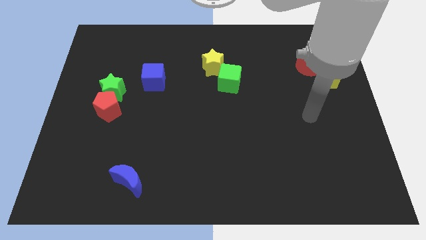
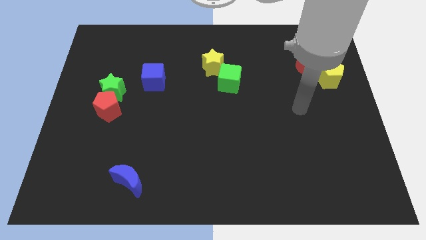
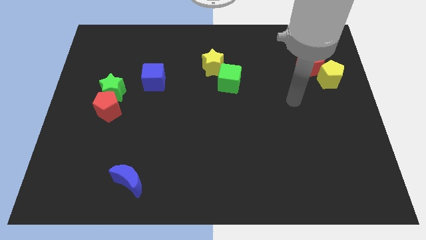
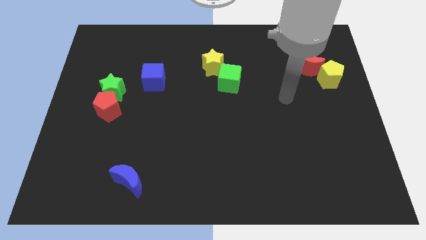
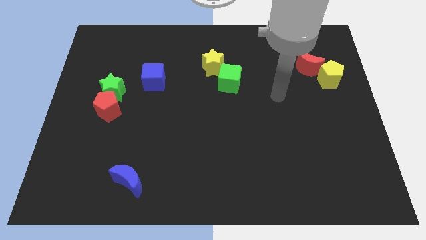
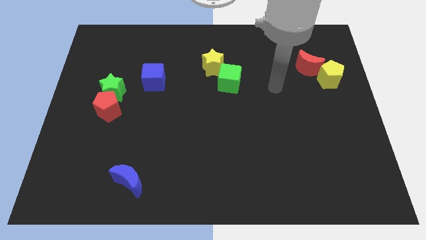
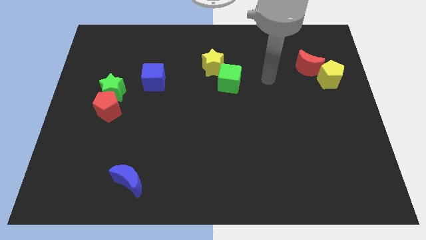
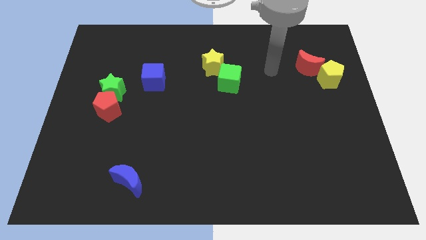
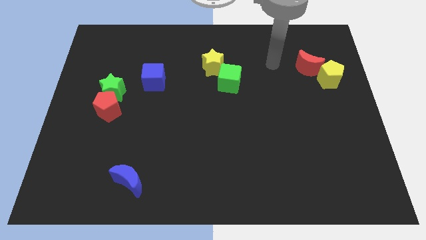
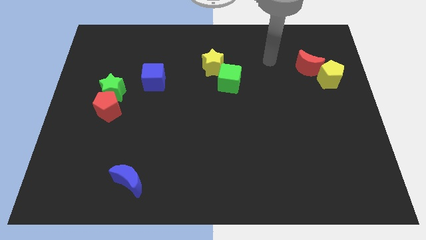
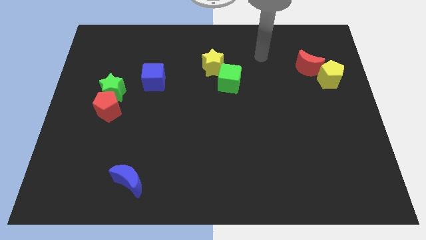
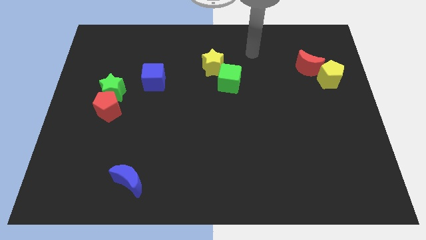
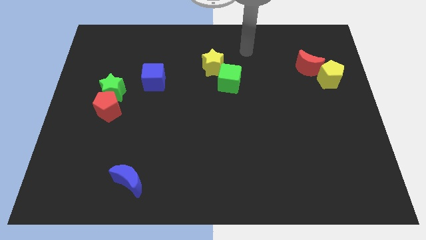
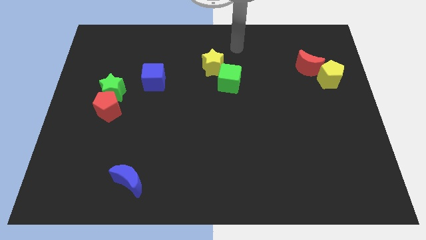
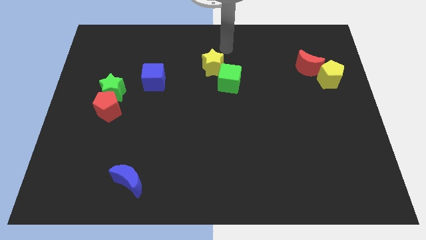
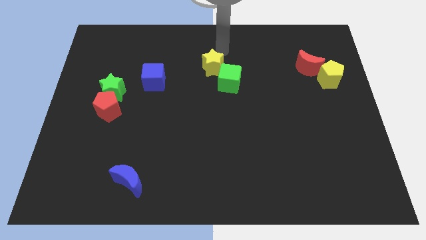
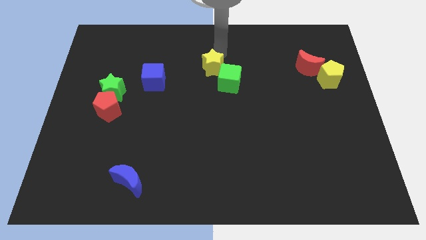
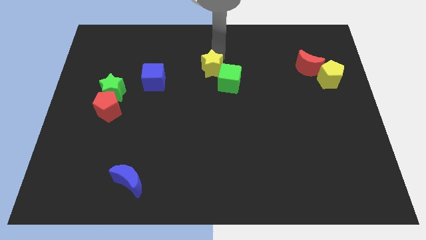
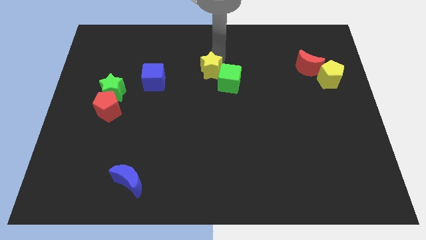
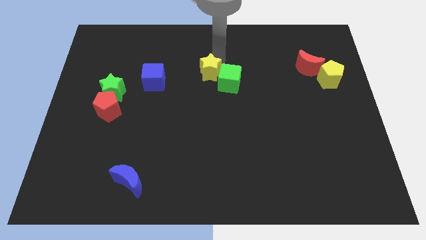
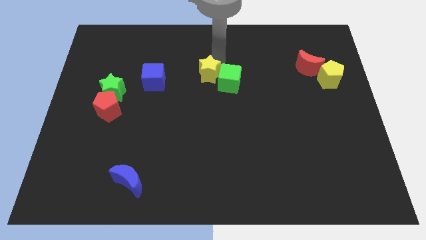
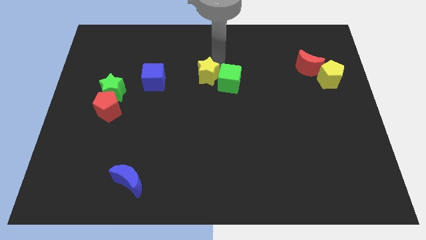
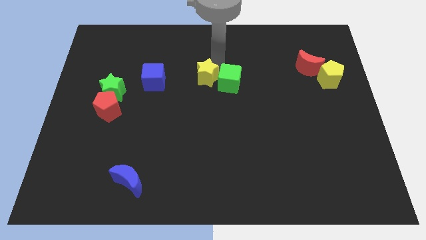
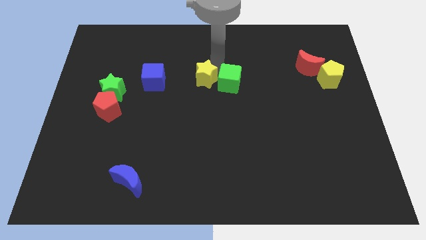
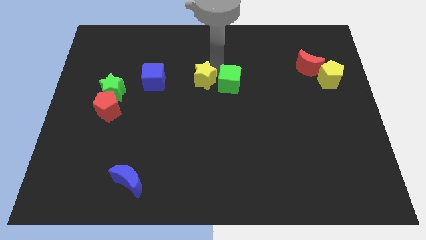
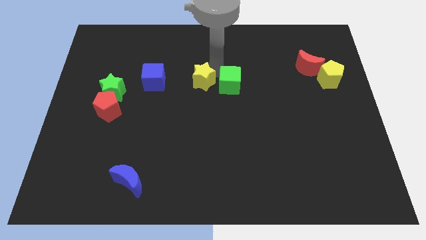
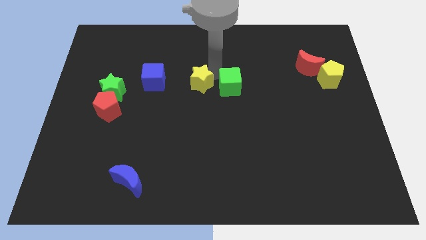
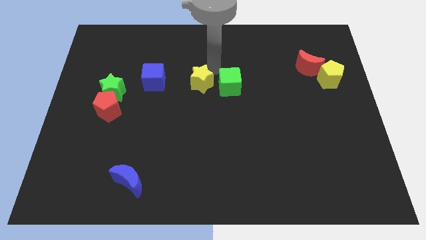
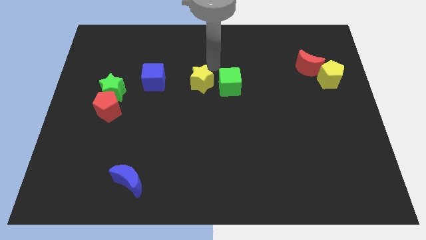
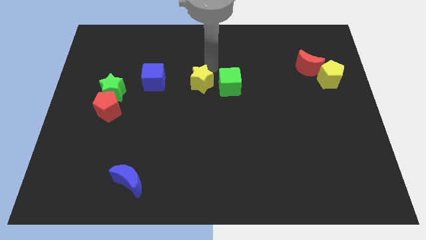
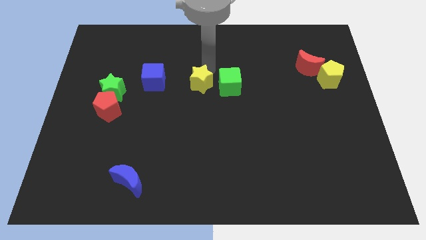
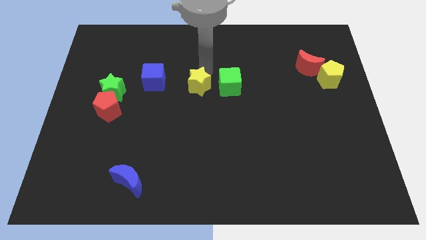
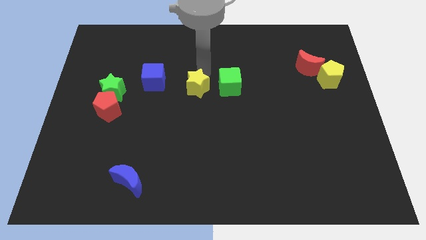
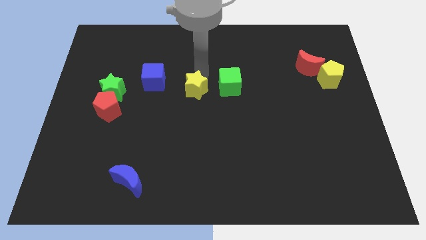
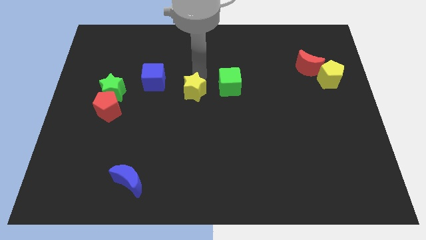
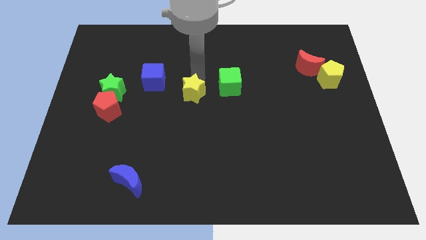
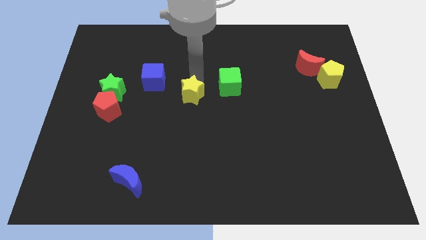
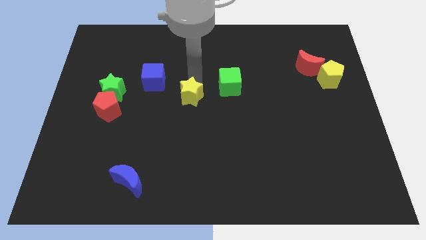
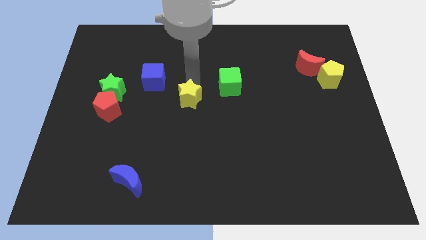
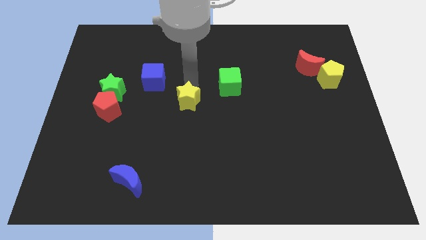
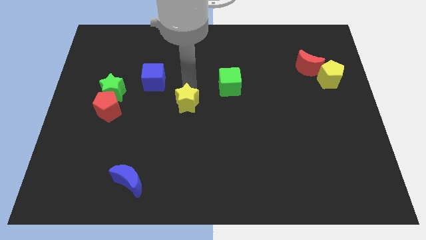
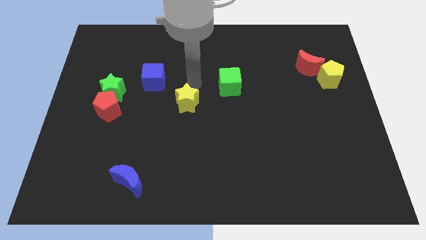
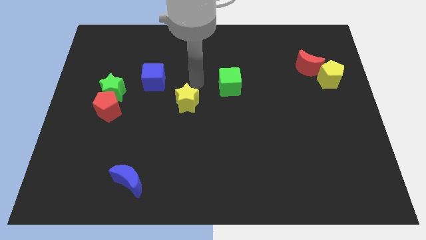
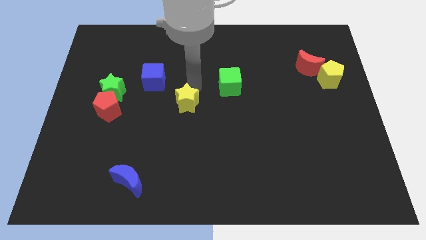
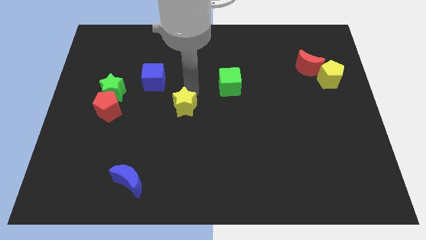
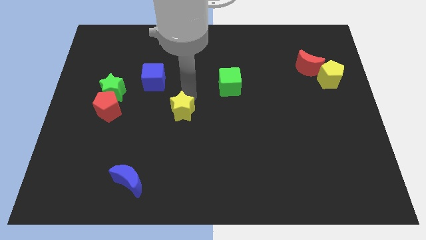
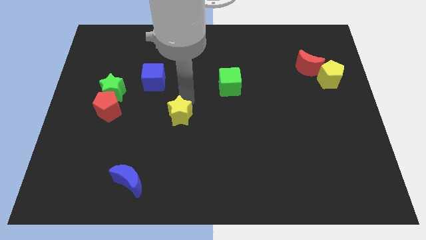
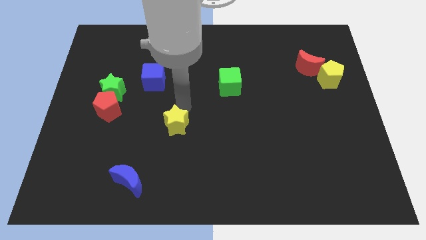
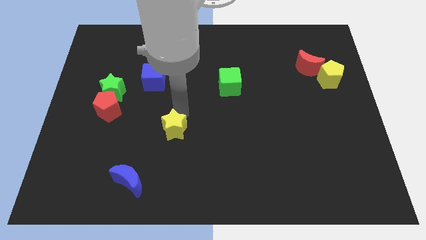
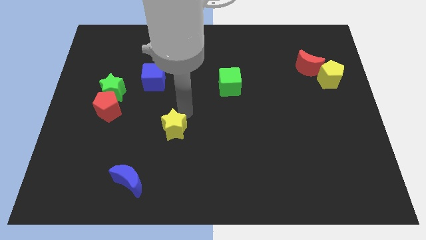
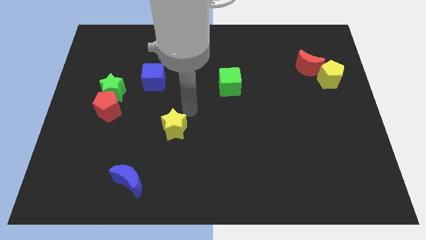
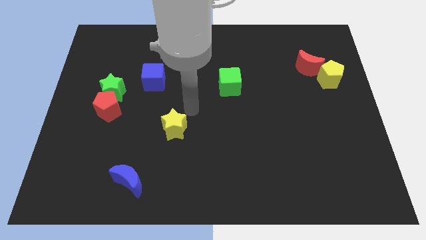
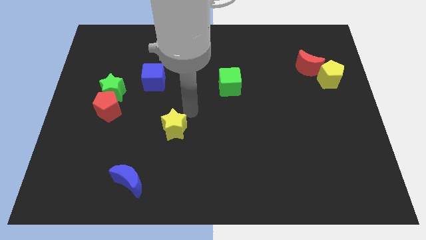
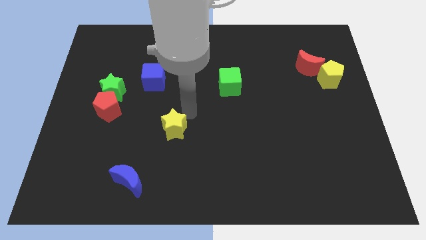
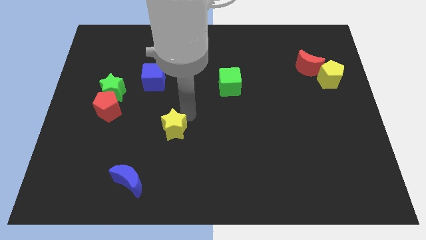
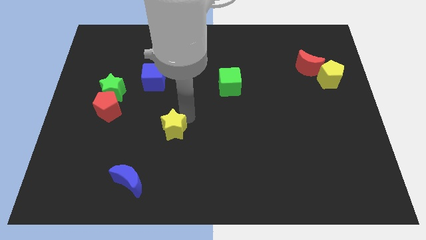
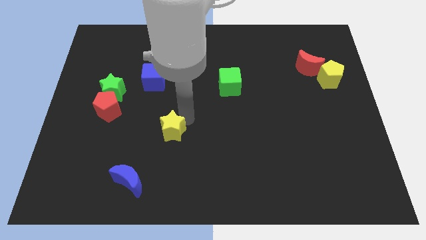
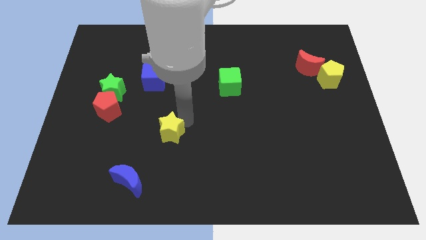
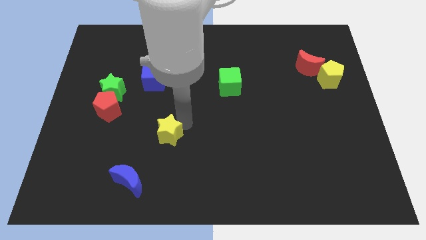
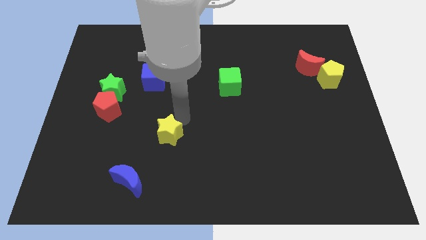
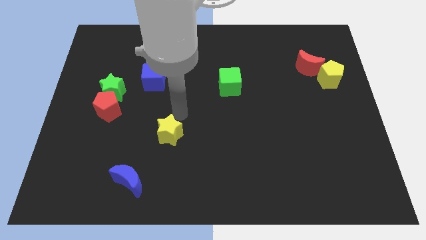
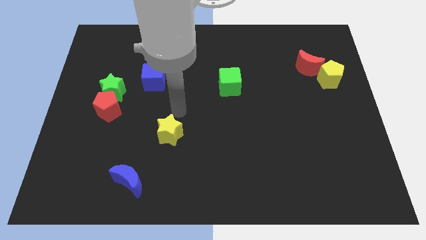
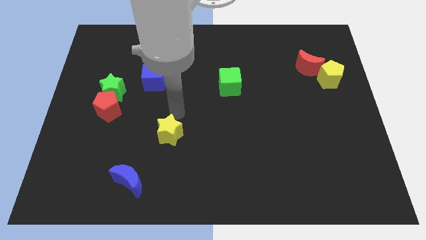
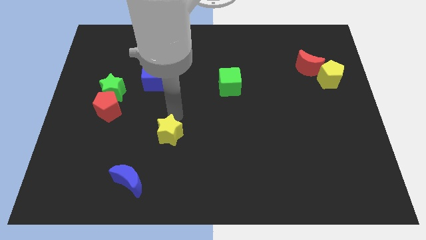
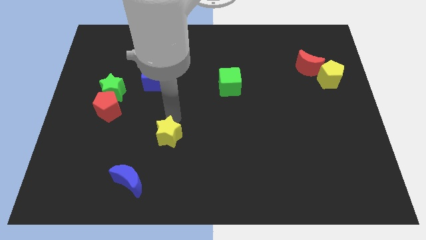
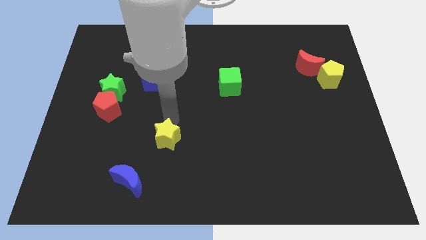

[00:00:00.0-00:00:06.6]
push the yellow star to the top right of the blue moon

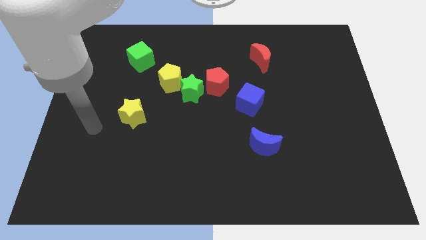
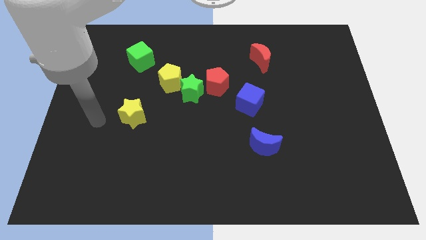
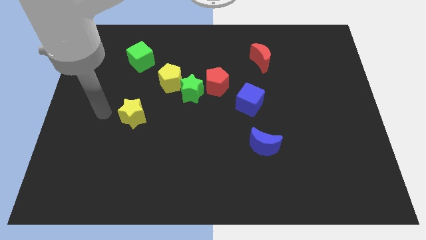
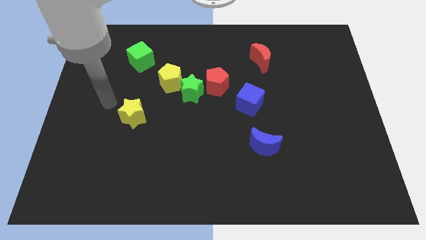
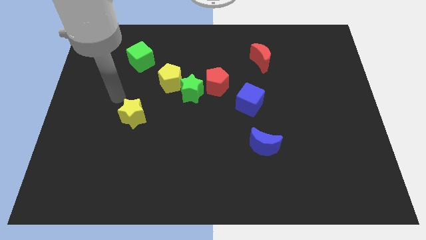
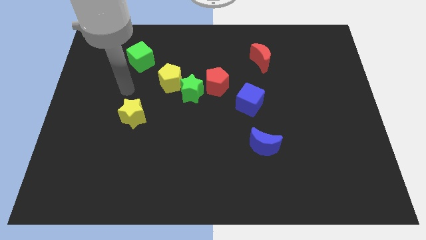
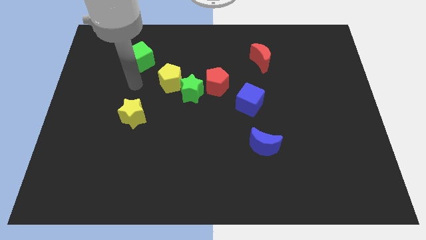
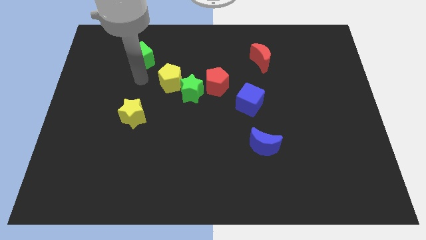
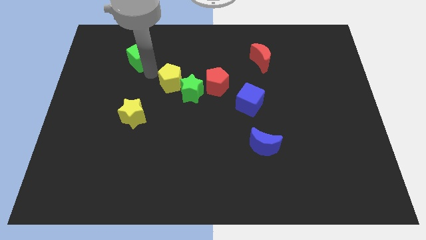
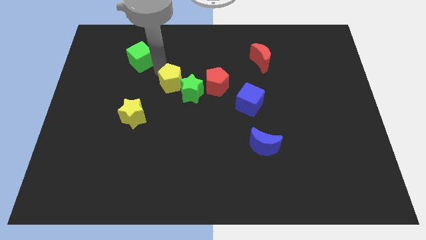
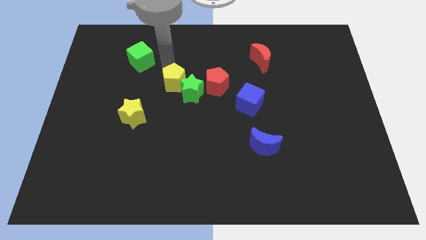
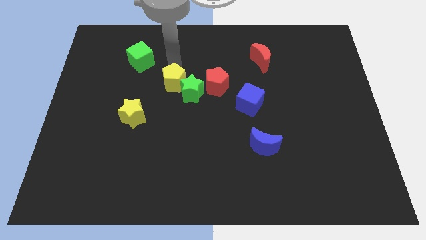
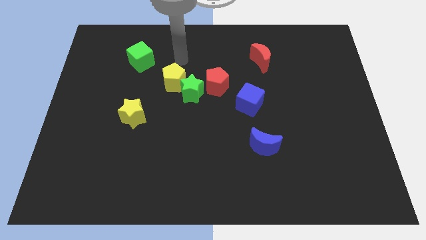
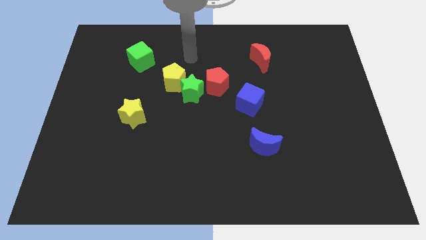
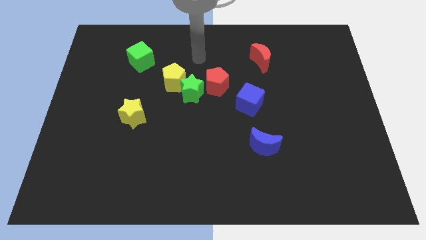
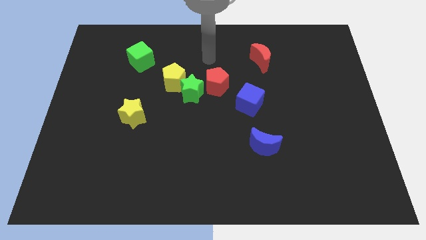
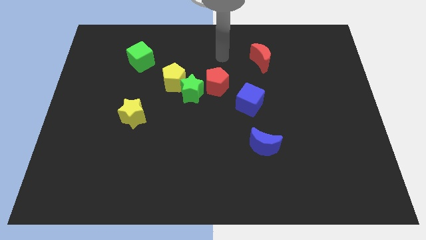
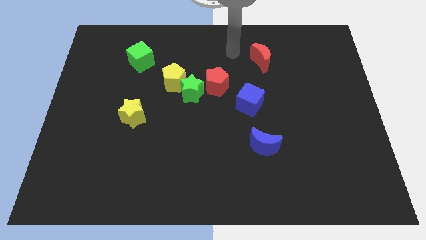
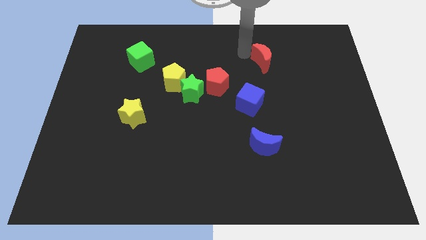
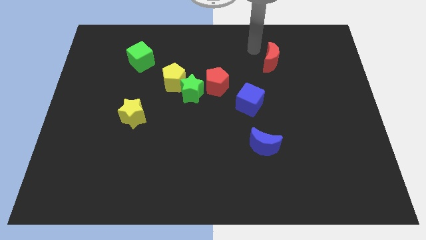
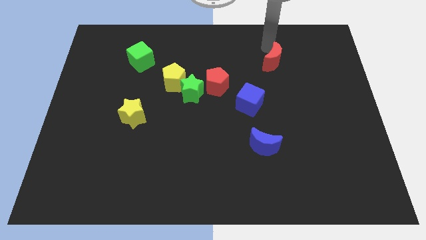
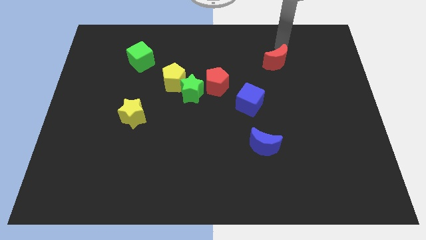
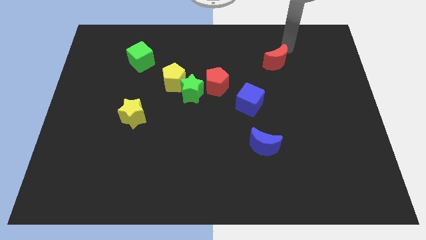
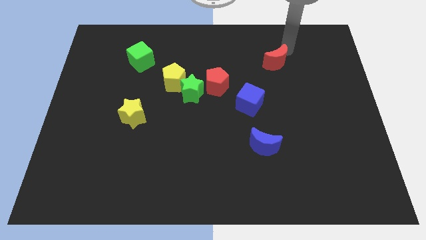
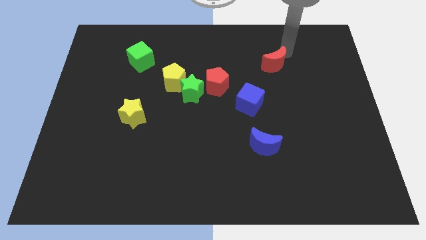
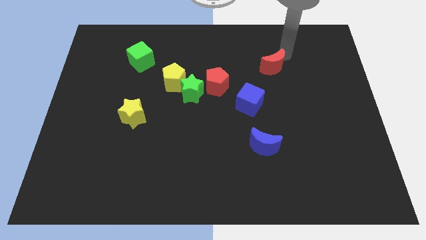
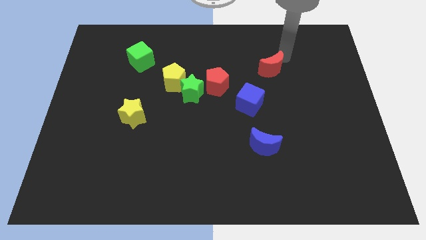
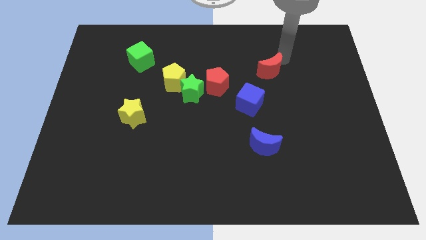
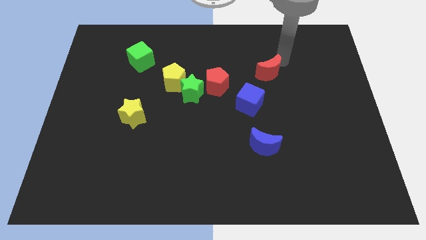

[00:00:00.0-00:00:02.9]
slide the red moon to the right of the red pentagon
